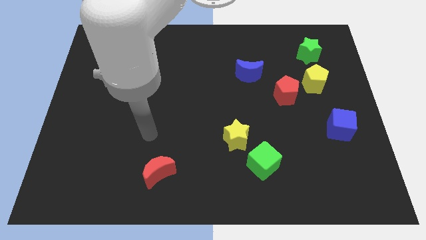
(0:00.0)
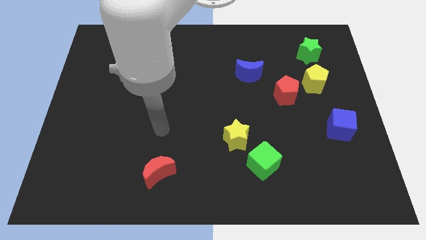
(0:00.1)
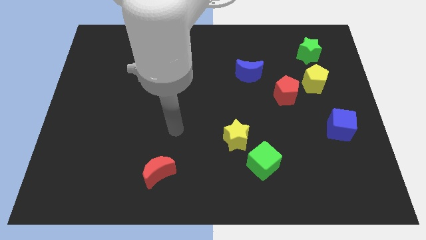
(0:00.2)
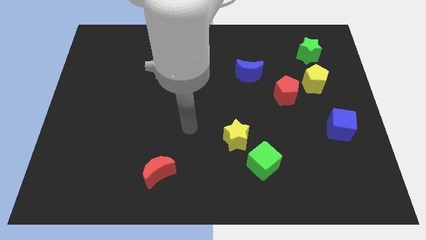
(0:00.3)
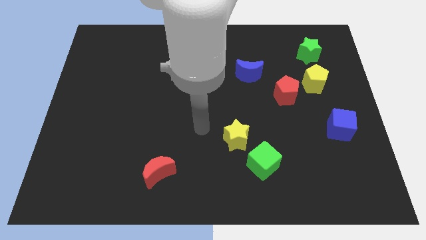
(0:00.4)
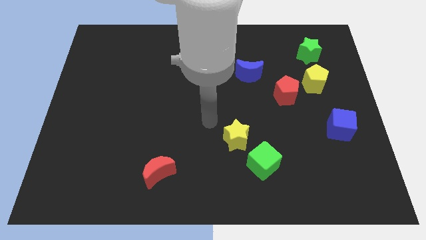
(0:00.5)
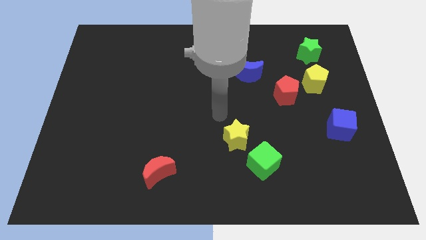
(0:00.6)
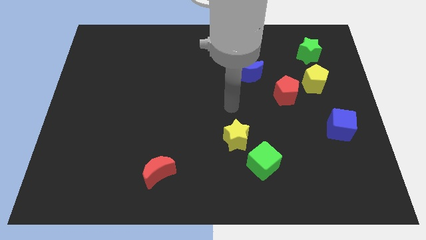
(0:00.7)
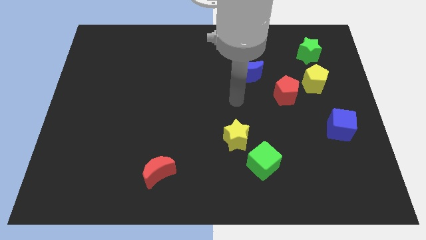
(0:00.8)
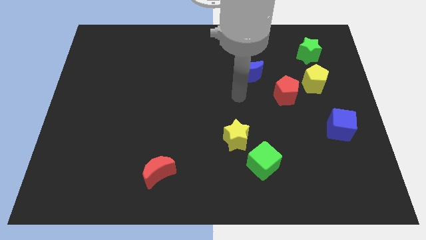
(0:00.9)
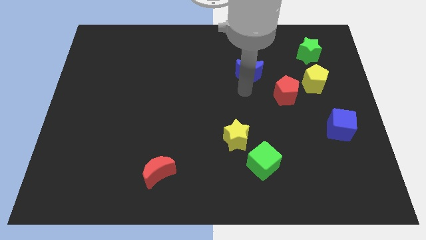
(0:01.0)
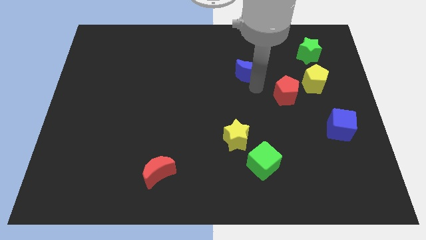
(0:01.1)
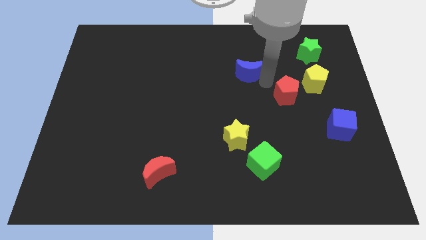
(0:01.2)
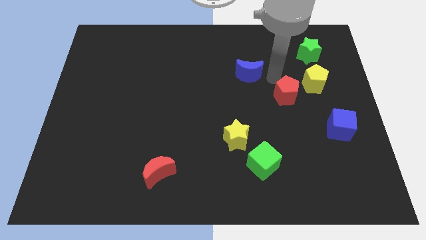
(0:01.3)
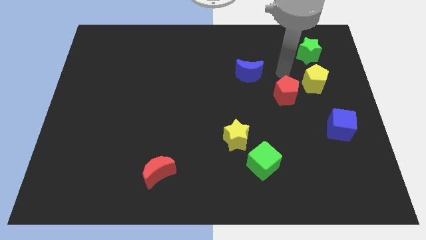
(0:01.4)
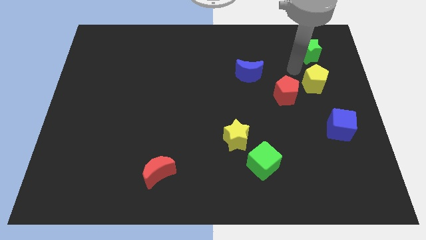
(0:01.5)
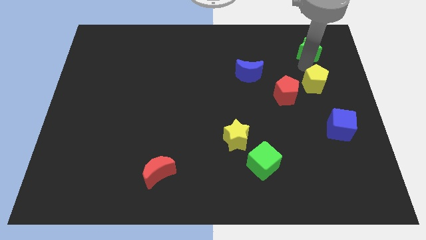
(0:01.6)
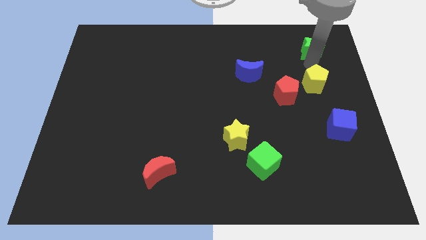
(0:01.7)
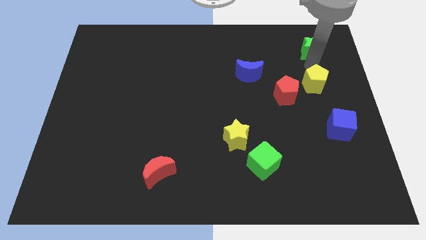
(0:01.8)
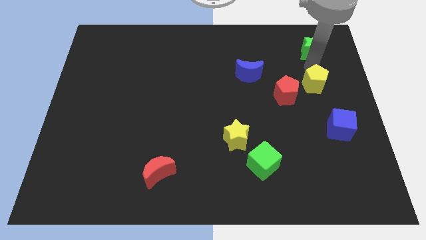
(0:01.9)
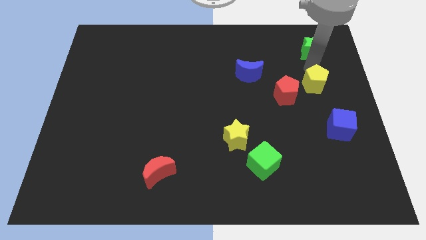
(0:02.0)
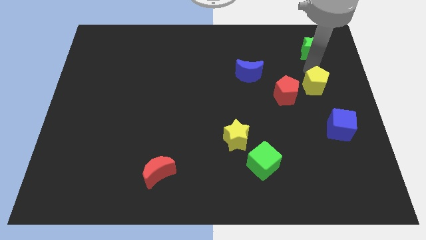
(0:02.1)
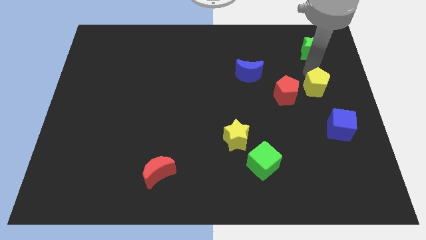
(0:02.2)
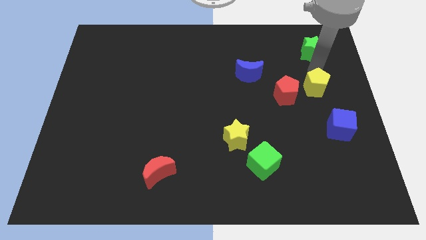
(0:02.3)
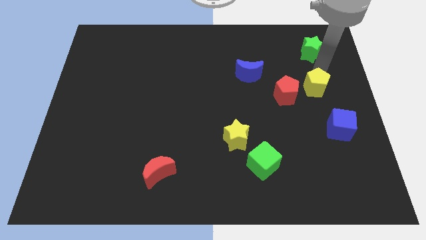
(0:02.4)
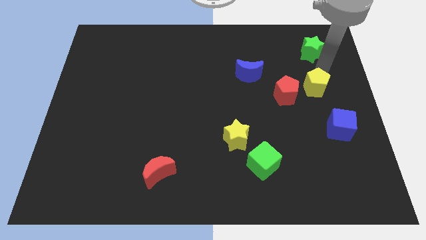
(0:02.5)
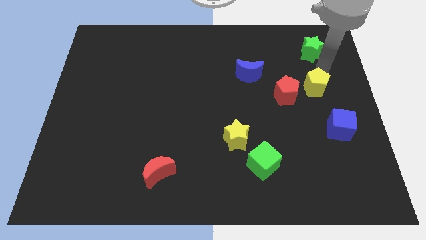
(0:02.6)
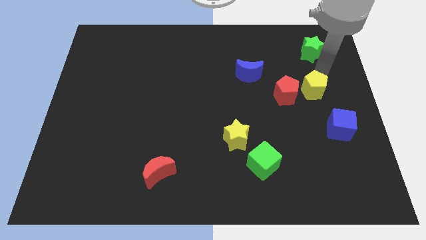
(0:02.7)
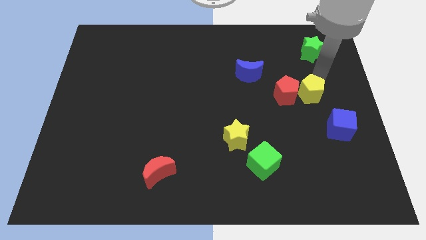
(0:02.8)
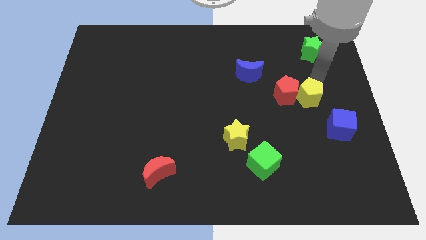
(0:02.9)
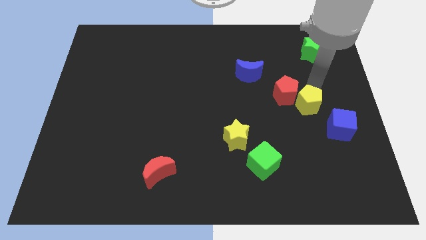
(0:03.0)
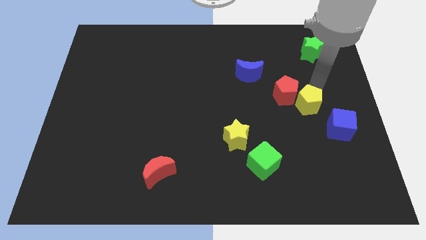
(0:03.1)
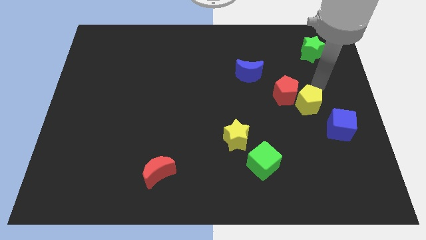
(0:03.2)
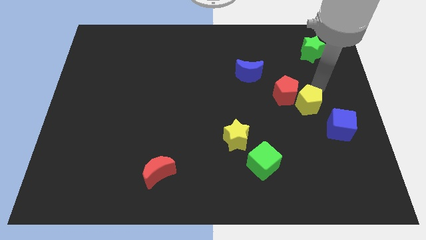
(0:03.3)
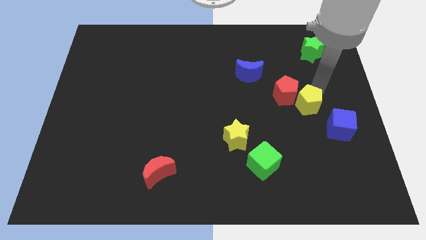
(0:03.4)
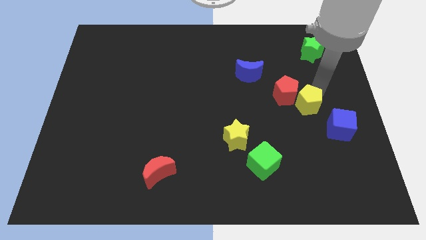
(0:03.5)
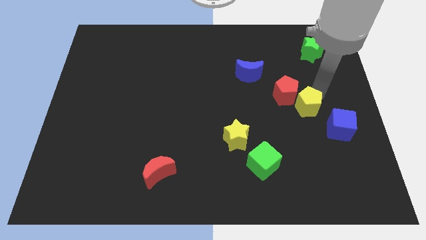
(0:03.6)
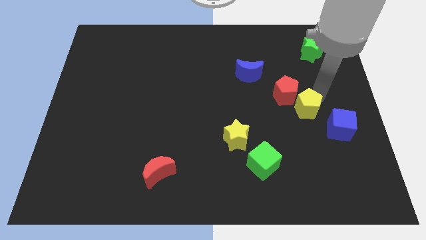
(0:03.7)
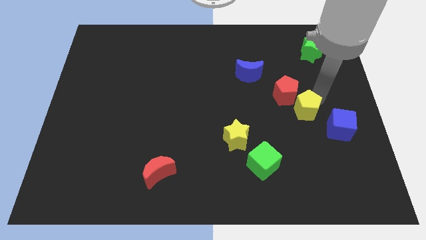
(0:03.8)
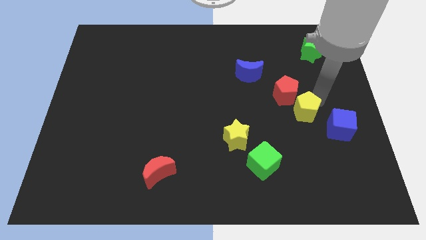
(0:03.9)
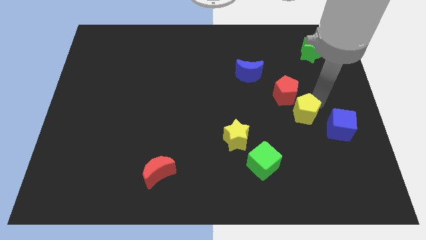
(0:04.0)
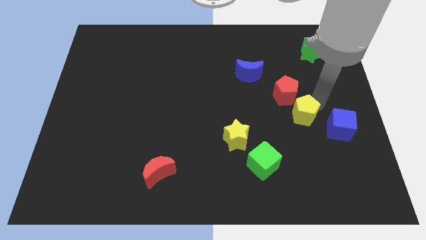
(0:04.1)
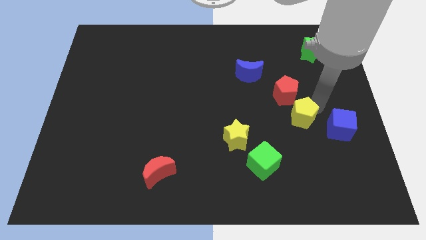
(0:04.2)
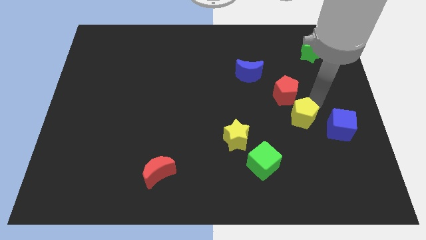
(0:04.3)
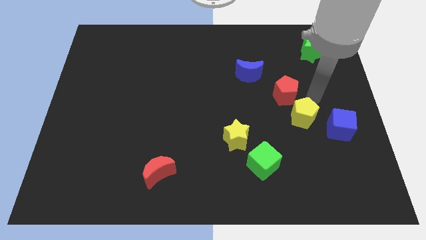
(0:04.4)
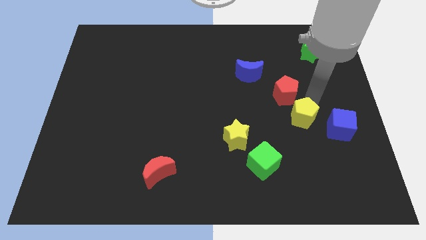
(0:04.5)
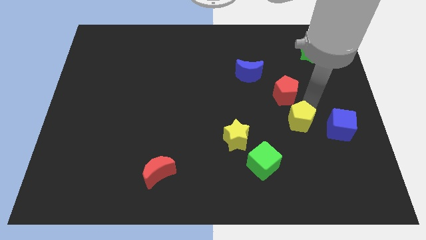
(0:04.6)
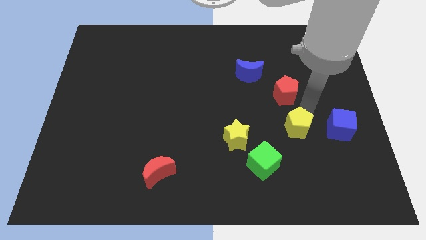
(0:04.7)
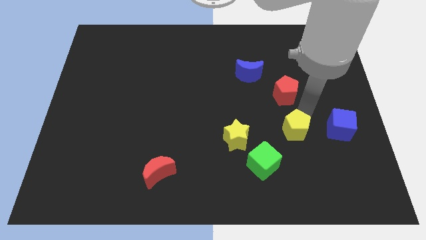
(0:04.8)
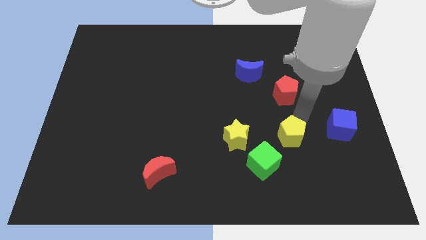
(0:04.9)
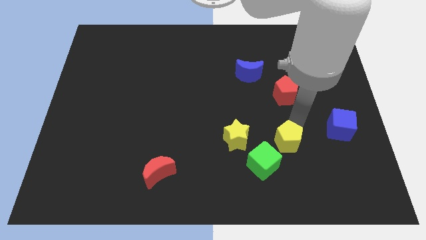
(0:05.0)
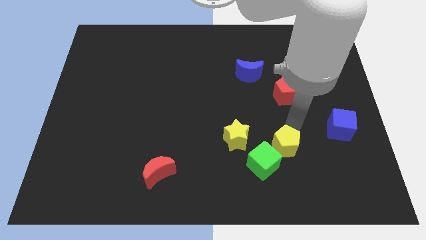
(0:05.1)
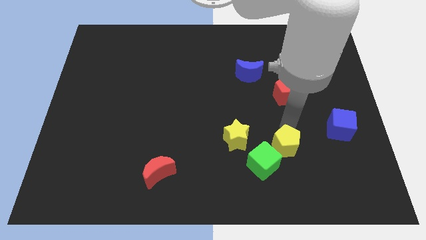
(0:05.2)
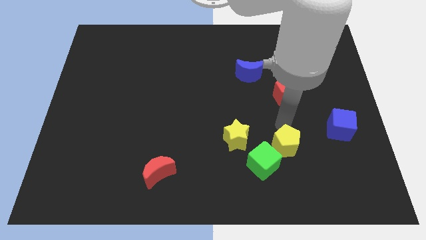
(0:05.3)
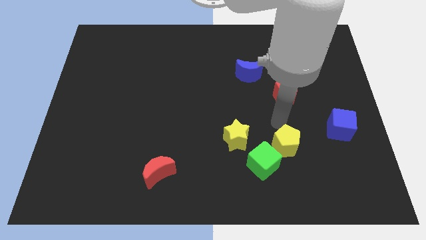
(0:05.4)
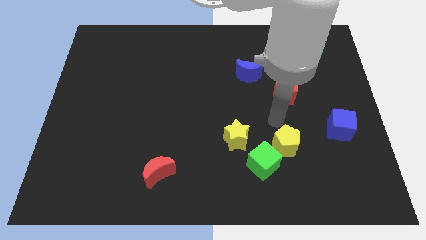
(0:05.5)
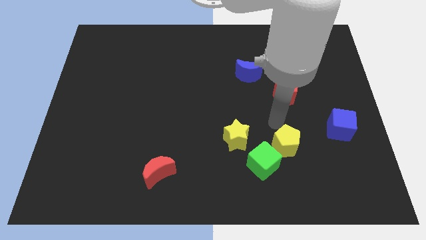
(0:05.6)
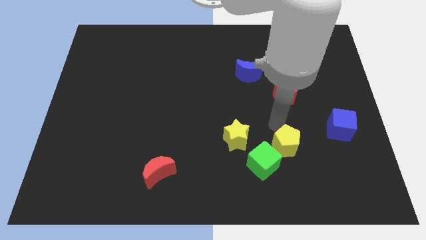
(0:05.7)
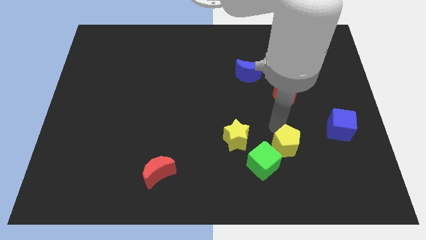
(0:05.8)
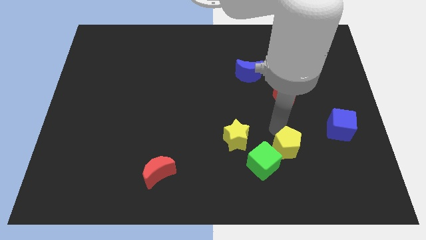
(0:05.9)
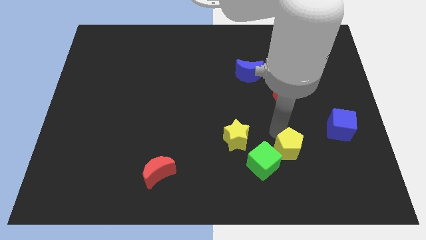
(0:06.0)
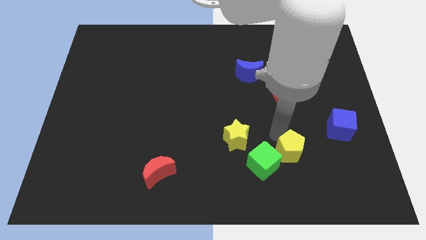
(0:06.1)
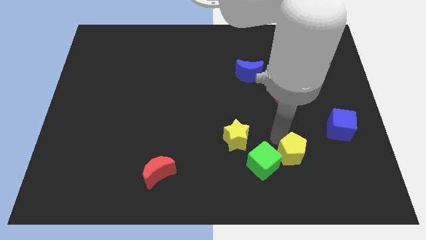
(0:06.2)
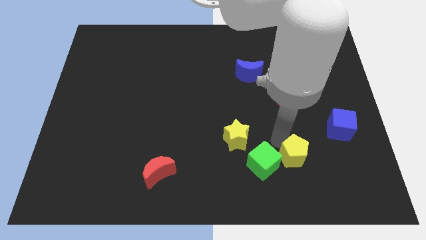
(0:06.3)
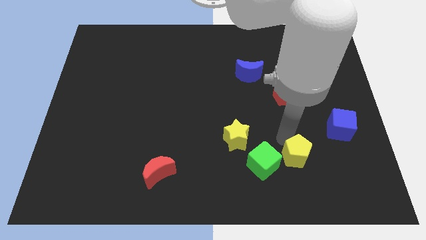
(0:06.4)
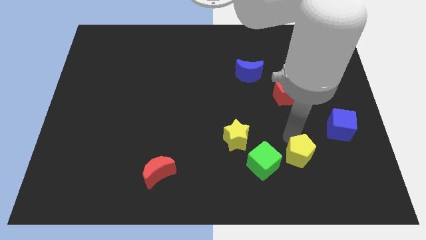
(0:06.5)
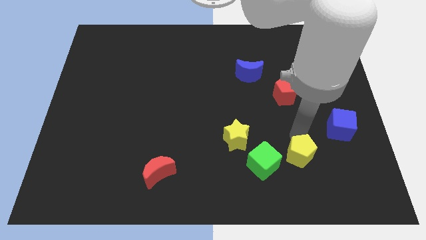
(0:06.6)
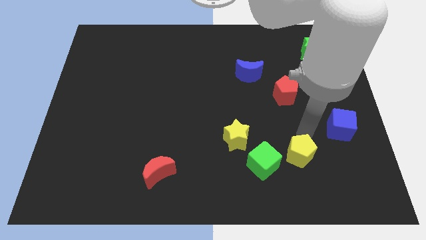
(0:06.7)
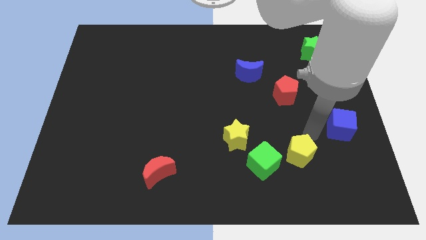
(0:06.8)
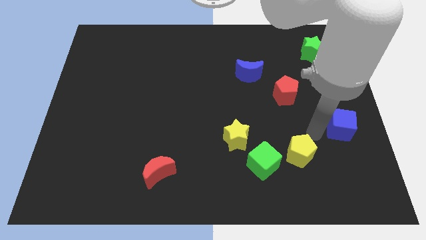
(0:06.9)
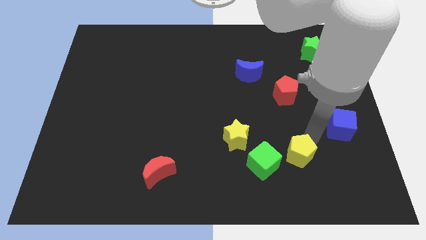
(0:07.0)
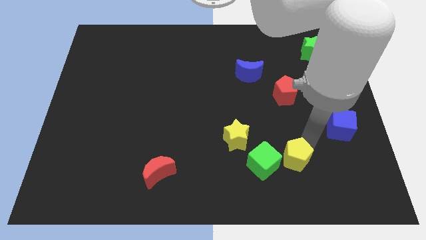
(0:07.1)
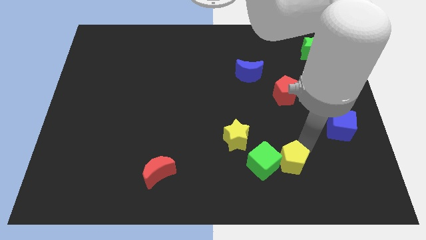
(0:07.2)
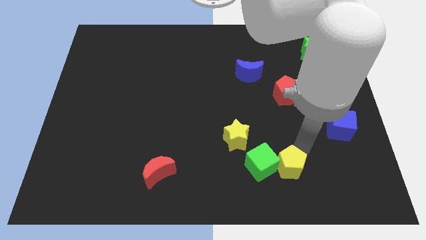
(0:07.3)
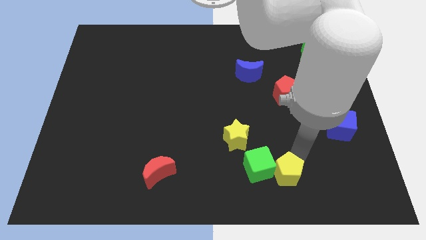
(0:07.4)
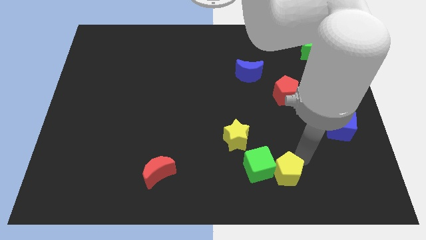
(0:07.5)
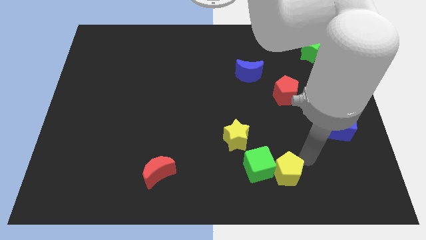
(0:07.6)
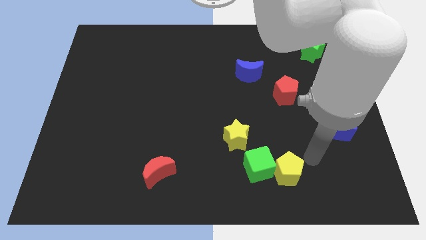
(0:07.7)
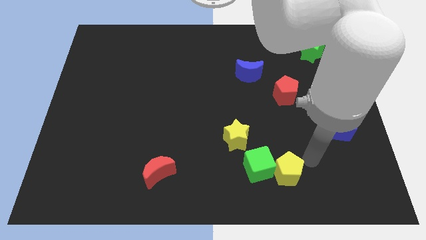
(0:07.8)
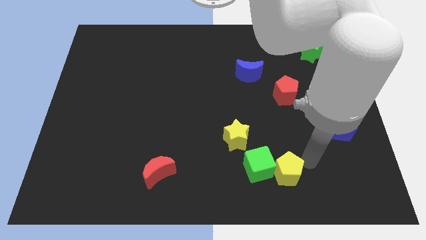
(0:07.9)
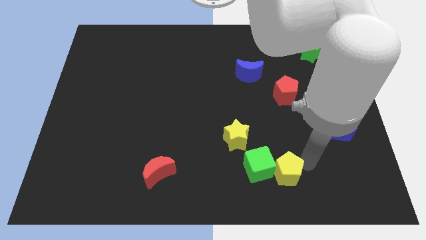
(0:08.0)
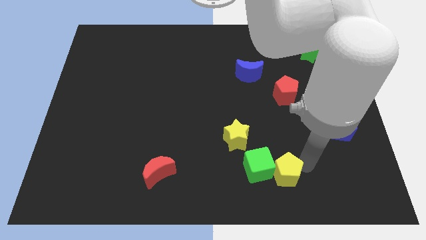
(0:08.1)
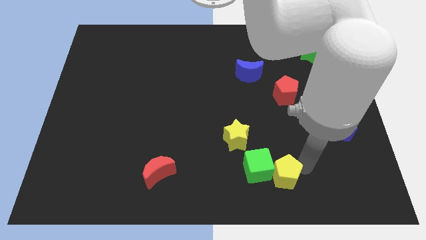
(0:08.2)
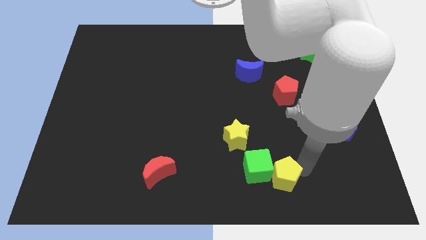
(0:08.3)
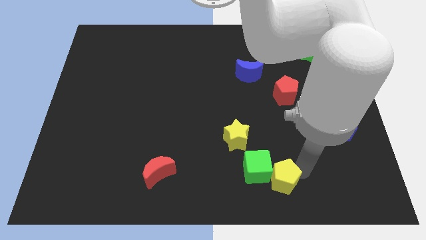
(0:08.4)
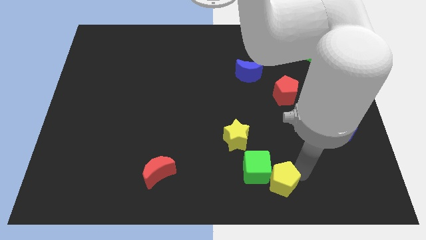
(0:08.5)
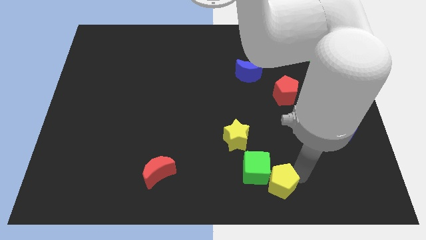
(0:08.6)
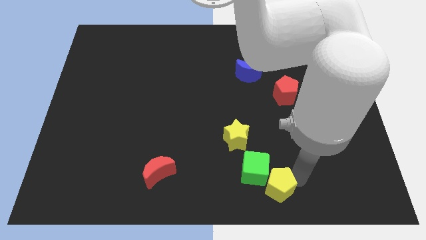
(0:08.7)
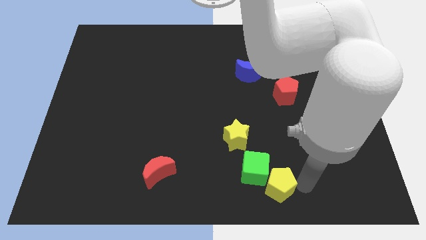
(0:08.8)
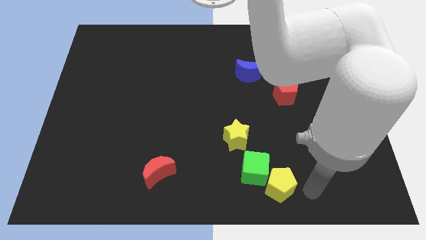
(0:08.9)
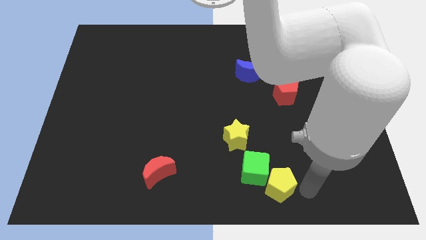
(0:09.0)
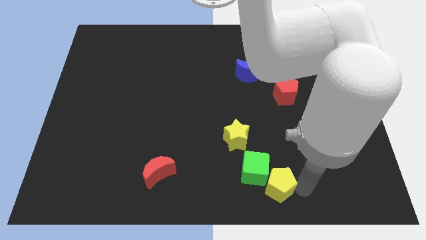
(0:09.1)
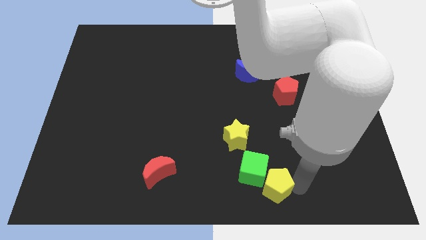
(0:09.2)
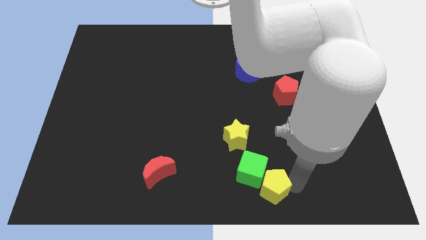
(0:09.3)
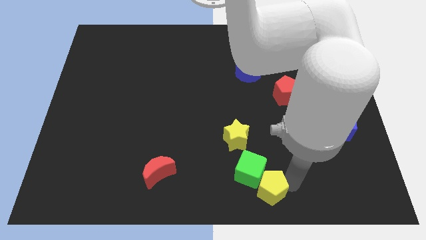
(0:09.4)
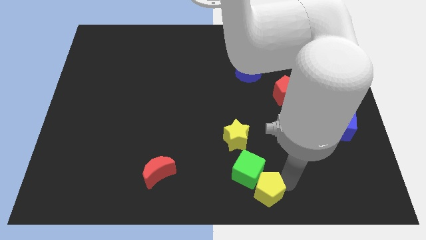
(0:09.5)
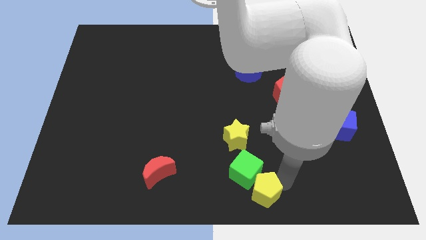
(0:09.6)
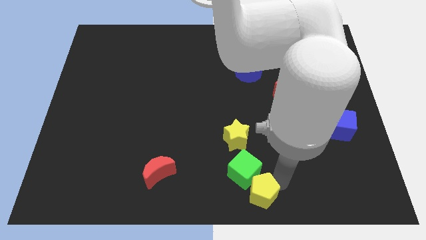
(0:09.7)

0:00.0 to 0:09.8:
put the yellow pentagon below the yellow star
